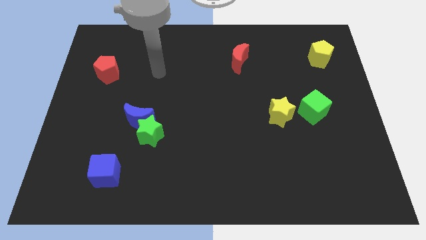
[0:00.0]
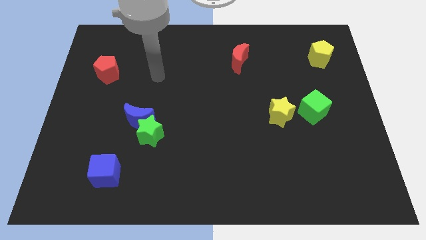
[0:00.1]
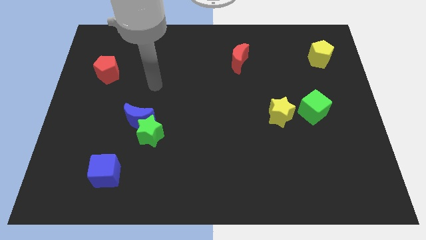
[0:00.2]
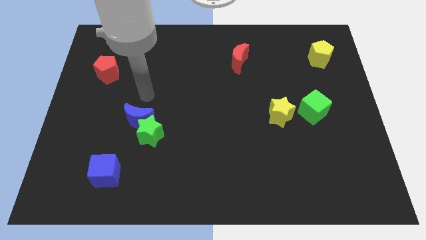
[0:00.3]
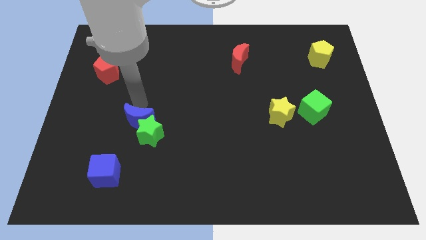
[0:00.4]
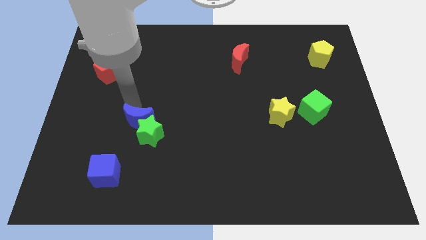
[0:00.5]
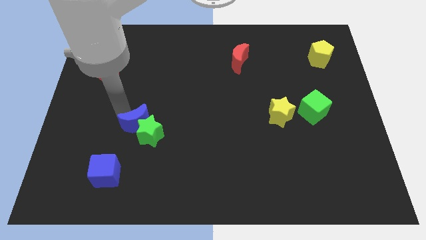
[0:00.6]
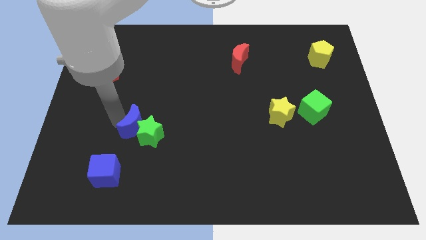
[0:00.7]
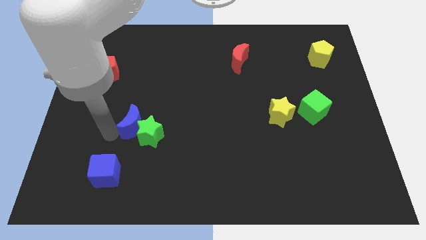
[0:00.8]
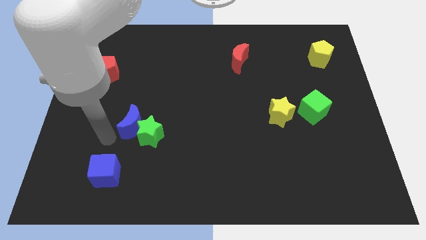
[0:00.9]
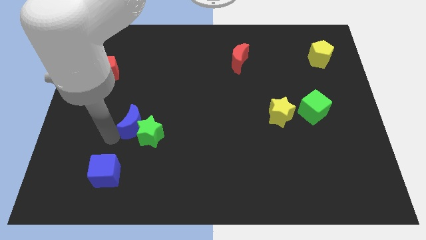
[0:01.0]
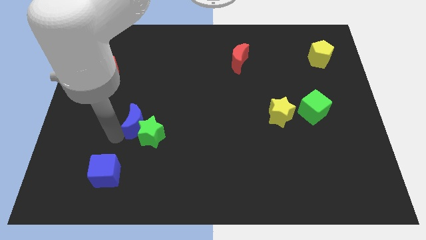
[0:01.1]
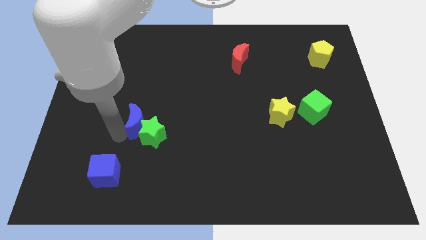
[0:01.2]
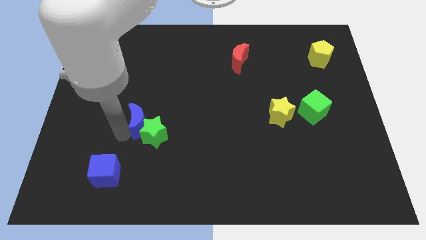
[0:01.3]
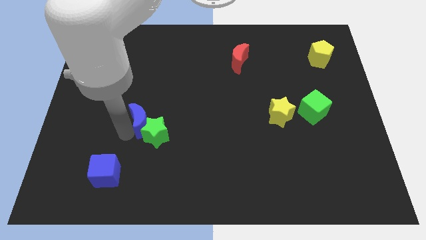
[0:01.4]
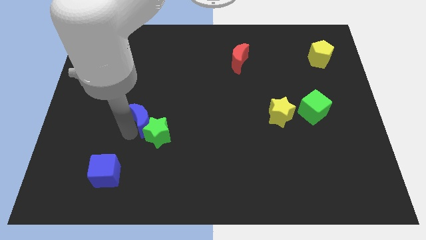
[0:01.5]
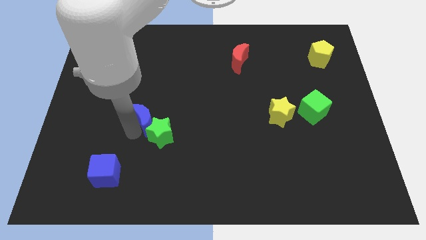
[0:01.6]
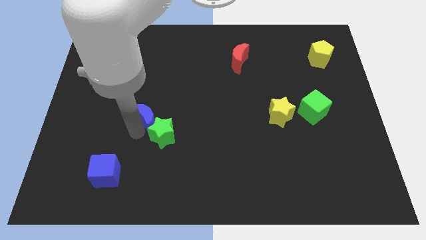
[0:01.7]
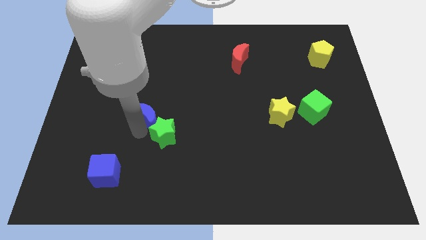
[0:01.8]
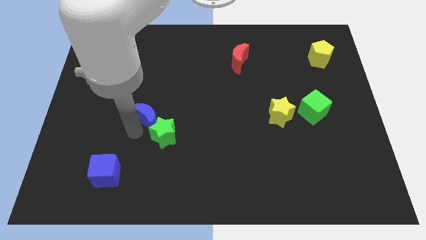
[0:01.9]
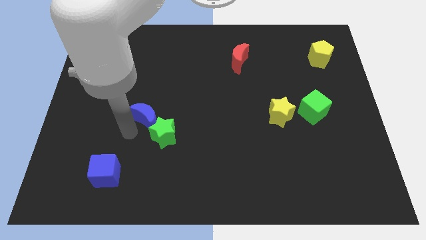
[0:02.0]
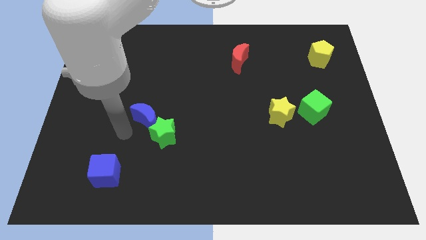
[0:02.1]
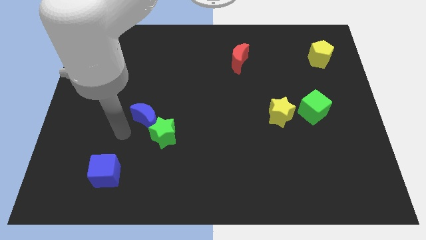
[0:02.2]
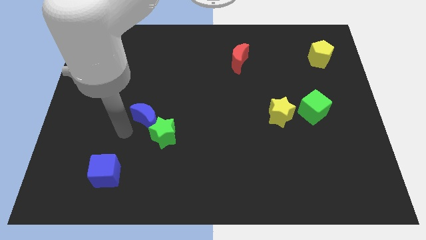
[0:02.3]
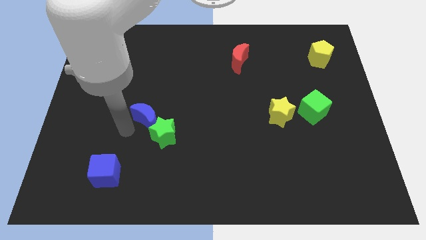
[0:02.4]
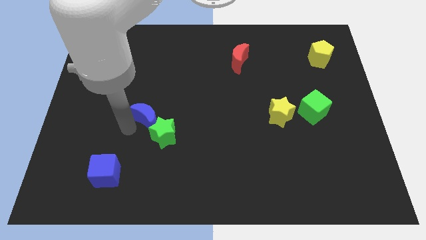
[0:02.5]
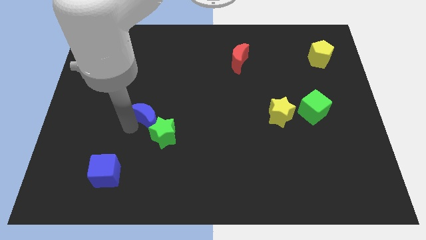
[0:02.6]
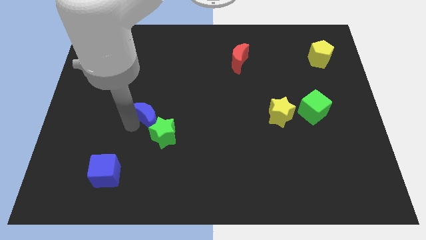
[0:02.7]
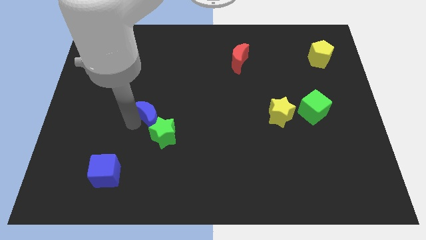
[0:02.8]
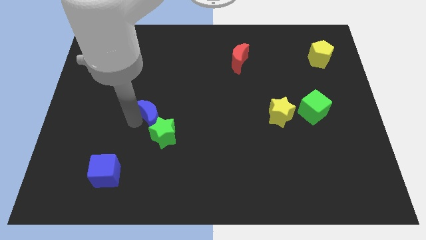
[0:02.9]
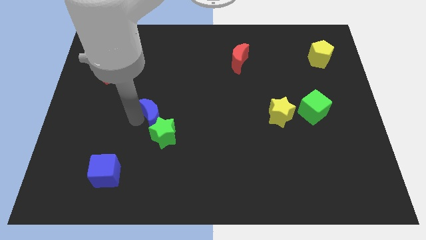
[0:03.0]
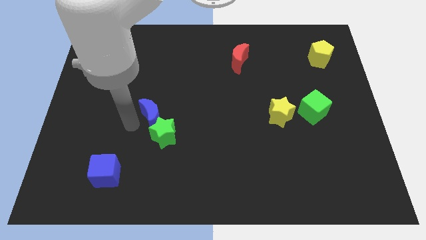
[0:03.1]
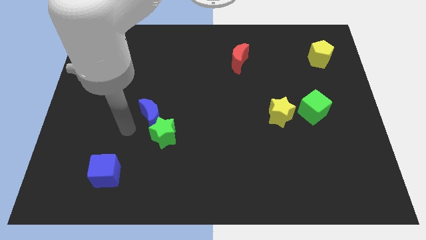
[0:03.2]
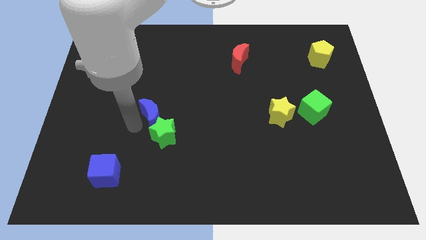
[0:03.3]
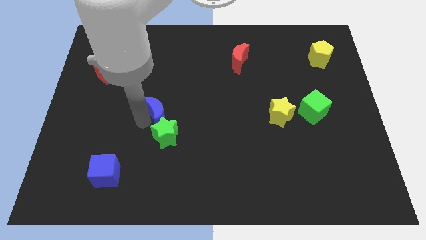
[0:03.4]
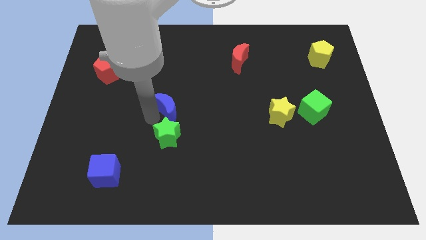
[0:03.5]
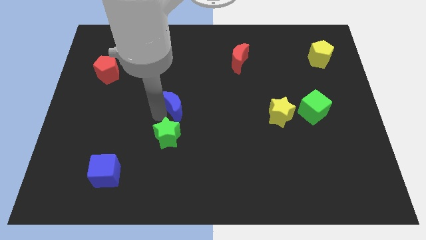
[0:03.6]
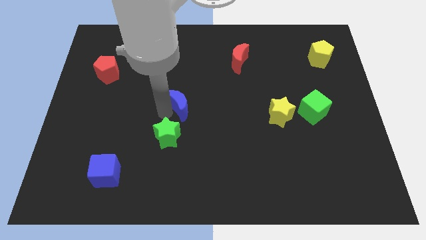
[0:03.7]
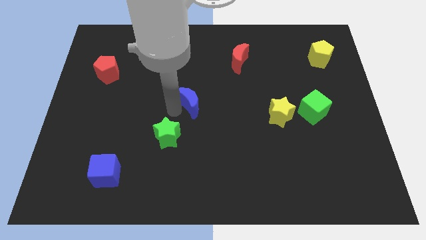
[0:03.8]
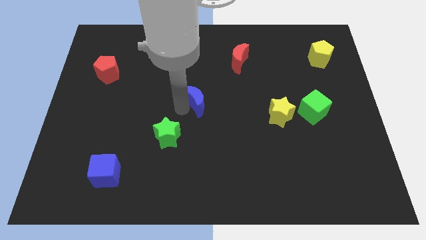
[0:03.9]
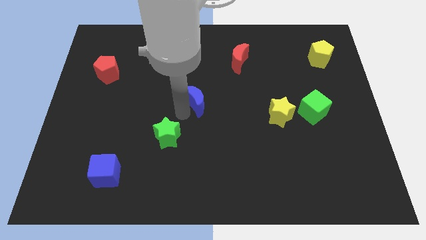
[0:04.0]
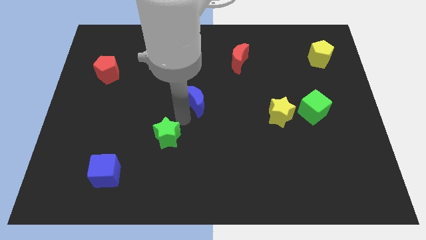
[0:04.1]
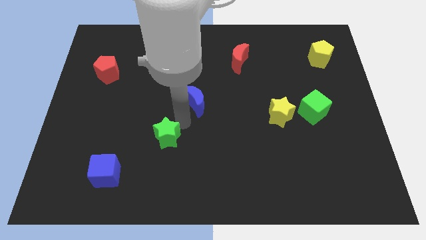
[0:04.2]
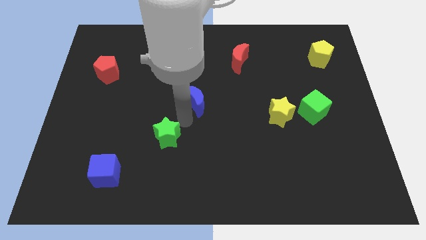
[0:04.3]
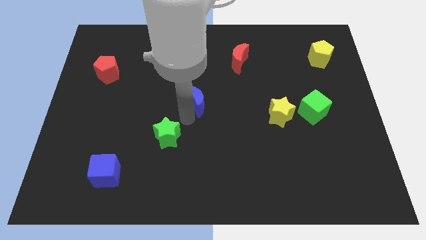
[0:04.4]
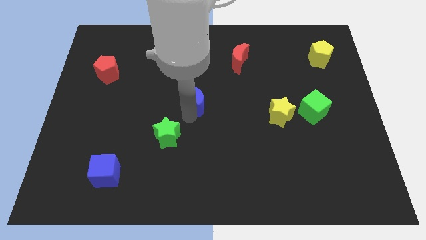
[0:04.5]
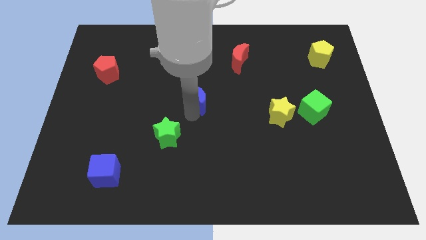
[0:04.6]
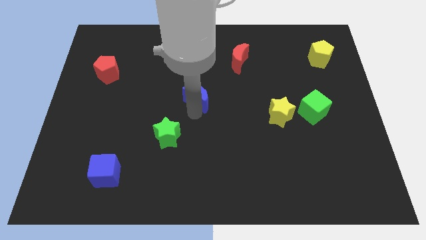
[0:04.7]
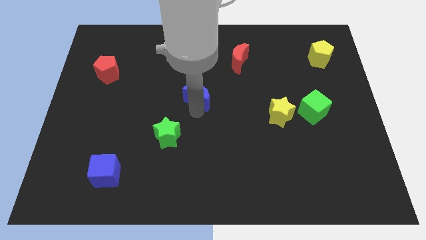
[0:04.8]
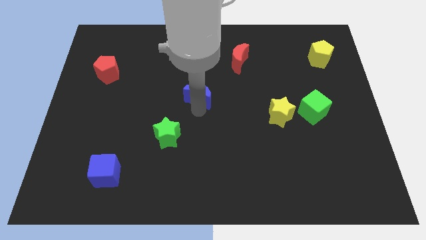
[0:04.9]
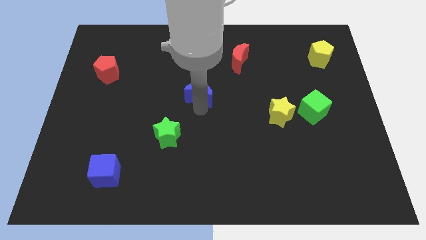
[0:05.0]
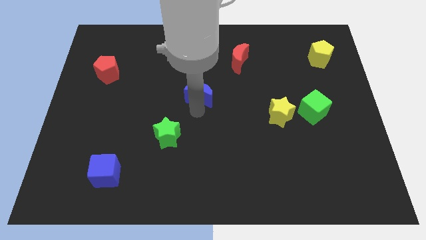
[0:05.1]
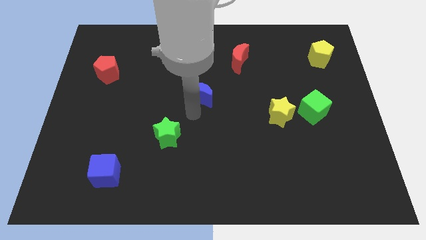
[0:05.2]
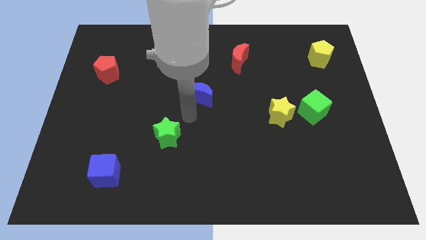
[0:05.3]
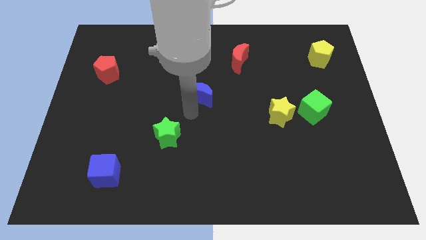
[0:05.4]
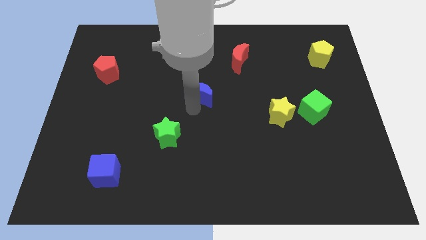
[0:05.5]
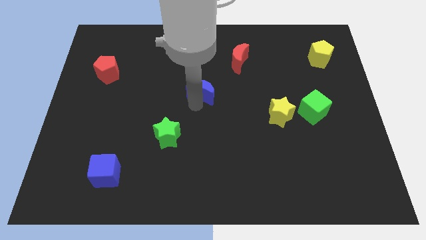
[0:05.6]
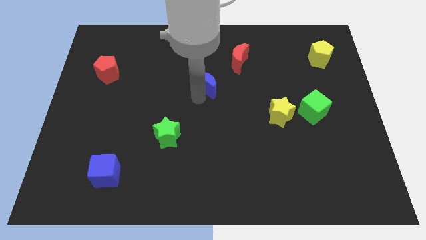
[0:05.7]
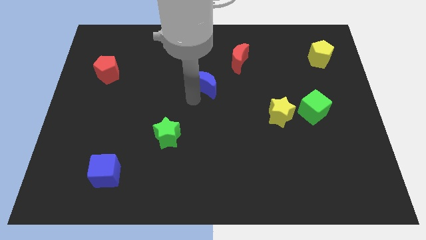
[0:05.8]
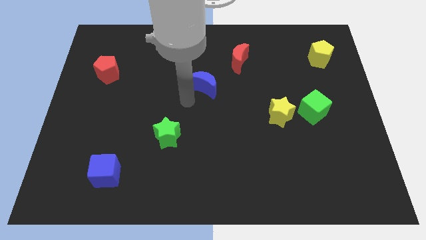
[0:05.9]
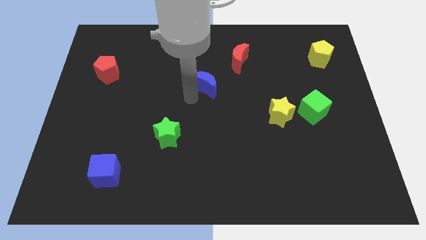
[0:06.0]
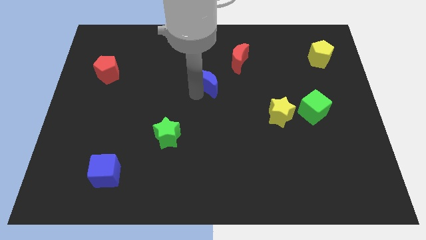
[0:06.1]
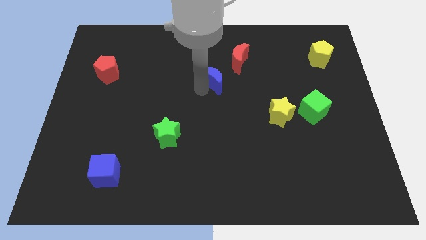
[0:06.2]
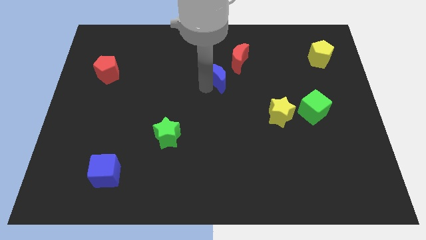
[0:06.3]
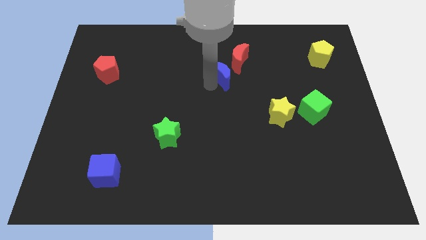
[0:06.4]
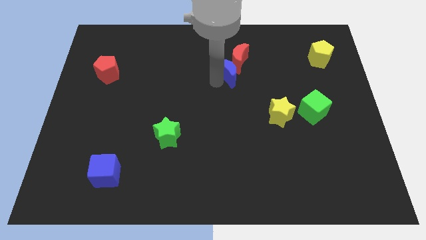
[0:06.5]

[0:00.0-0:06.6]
slide the blue moon next to the red moon

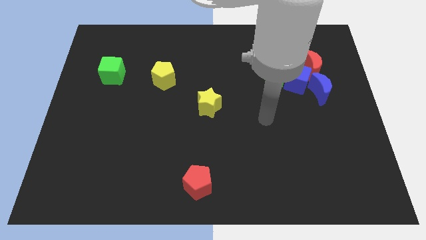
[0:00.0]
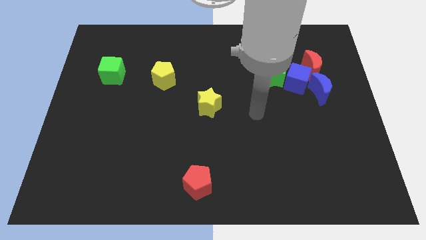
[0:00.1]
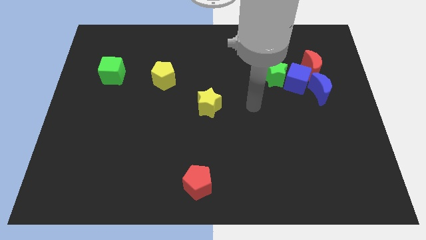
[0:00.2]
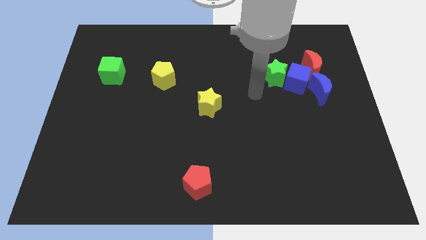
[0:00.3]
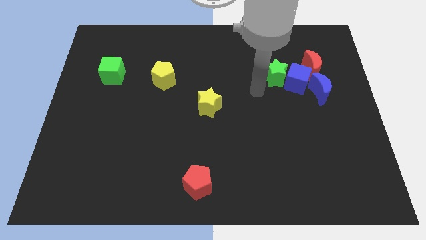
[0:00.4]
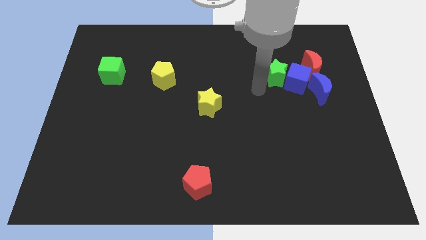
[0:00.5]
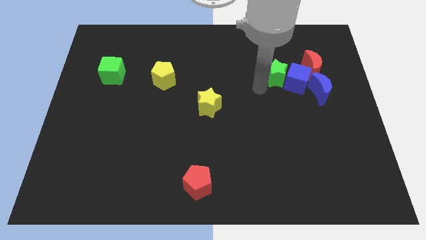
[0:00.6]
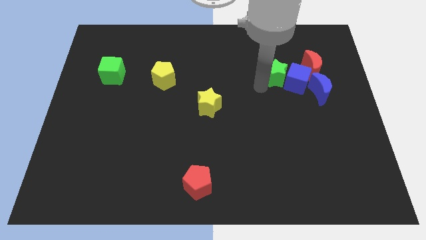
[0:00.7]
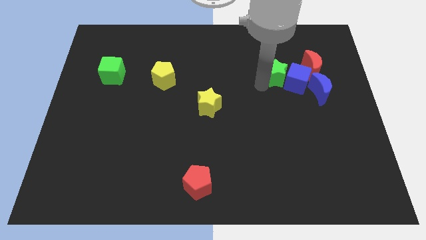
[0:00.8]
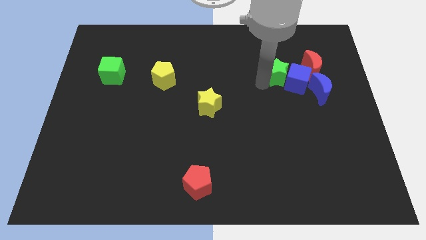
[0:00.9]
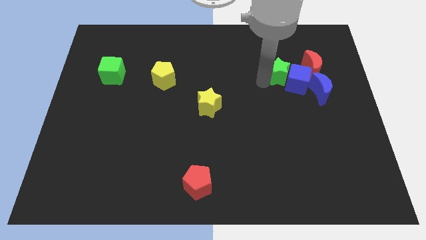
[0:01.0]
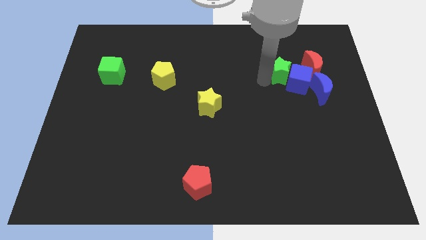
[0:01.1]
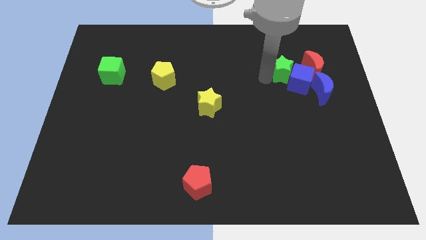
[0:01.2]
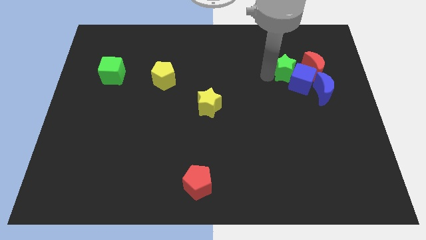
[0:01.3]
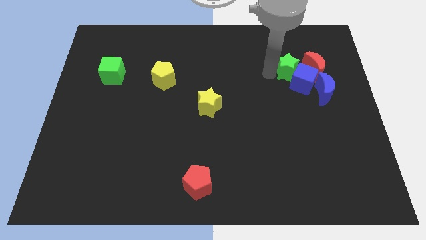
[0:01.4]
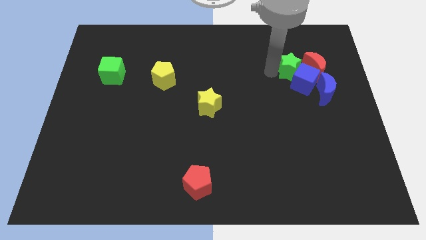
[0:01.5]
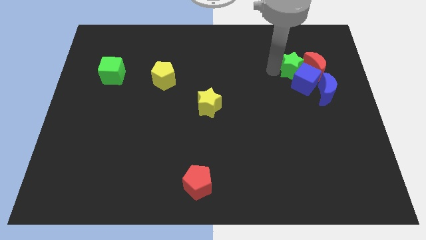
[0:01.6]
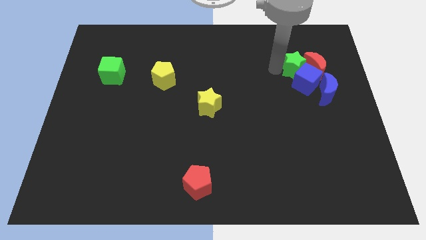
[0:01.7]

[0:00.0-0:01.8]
put the green star next to the red moon
